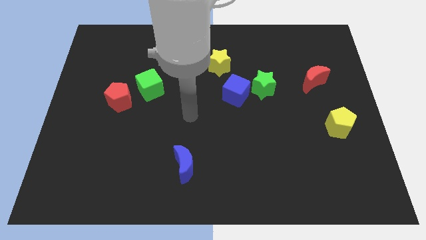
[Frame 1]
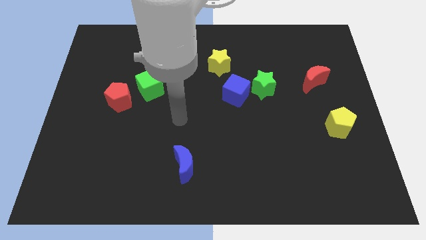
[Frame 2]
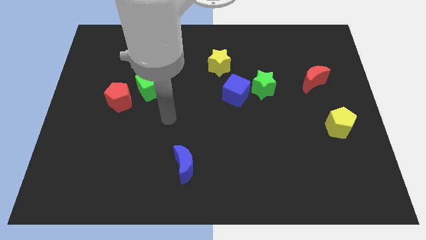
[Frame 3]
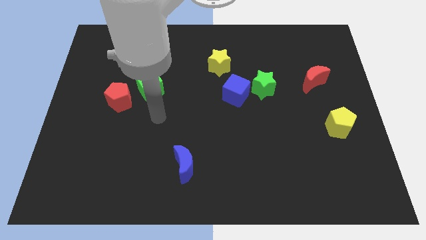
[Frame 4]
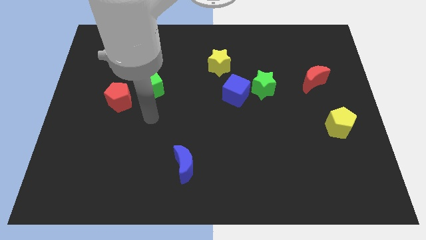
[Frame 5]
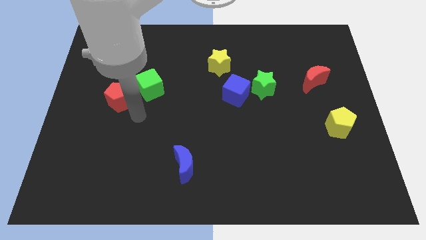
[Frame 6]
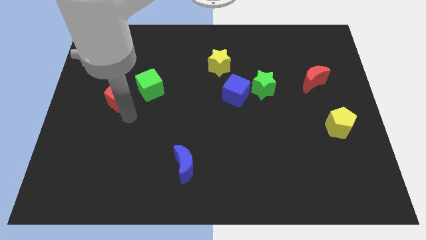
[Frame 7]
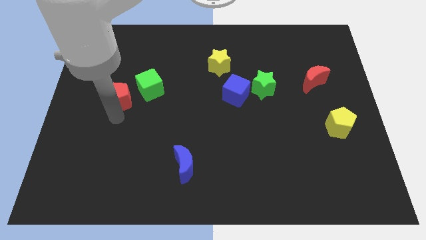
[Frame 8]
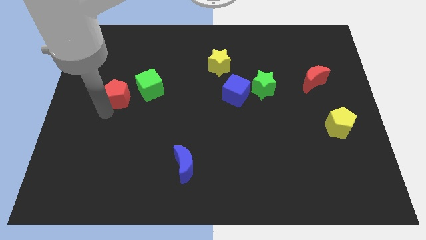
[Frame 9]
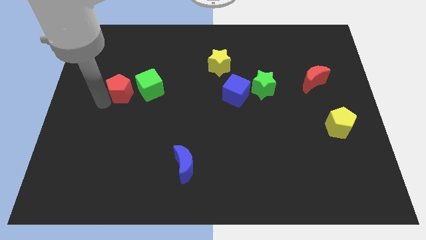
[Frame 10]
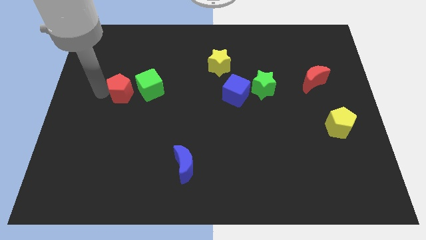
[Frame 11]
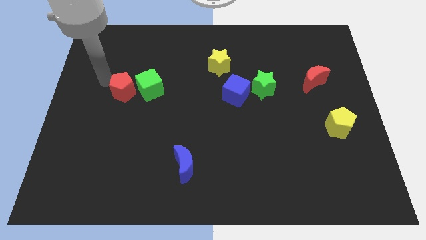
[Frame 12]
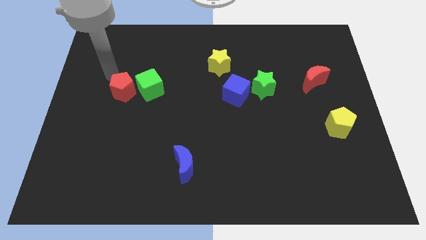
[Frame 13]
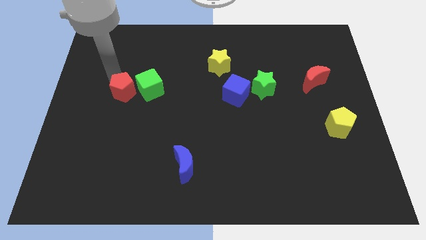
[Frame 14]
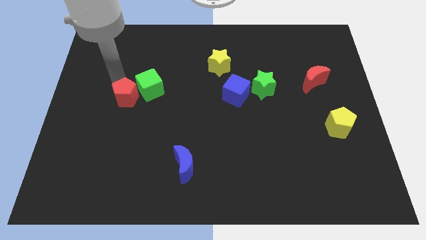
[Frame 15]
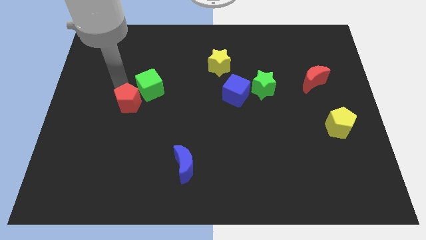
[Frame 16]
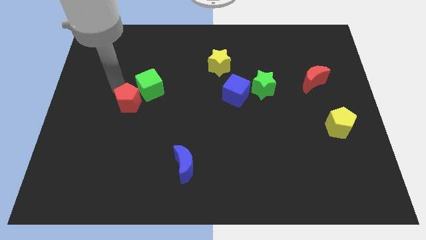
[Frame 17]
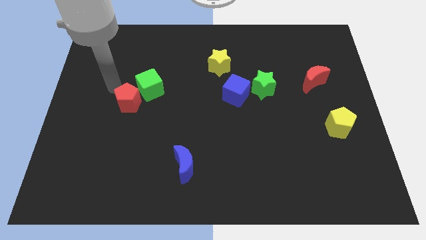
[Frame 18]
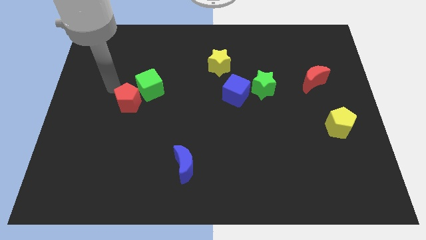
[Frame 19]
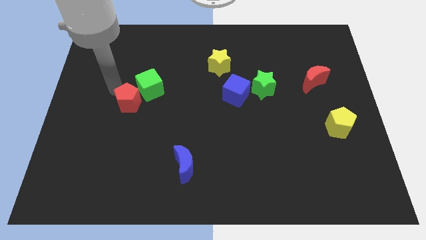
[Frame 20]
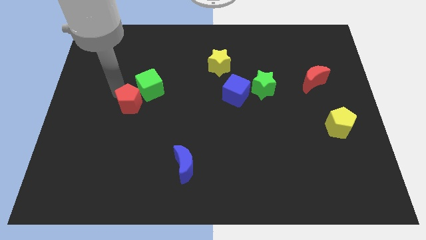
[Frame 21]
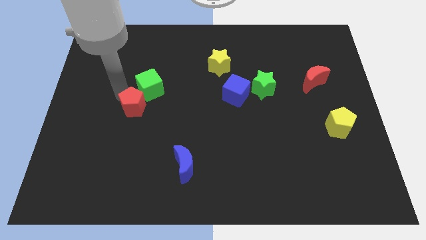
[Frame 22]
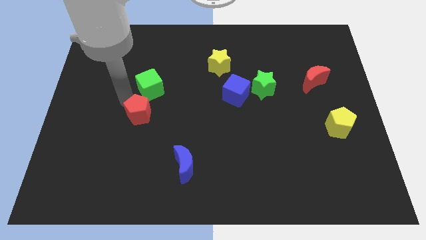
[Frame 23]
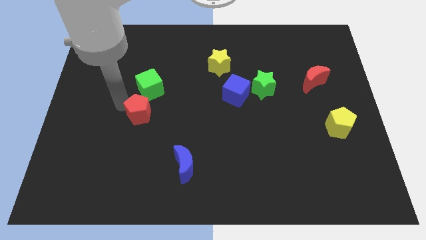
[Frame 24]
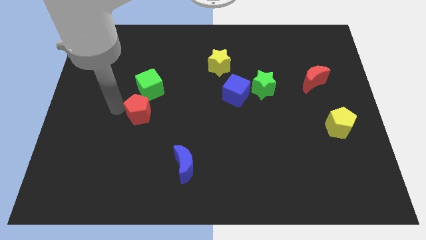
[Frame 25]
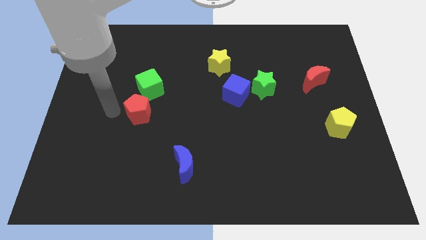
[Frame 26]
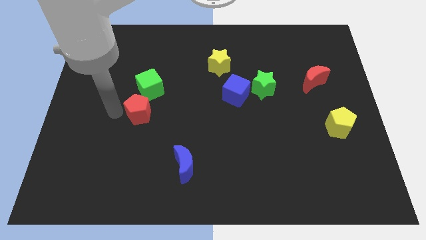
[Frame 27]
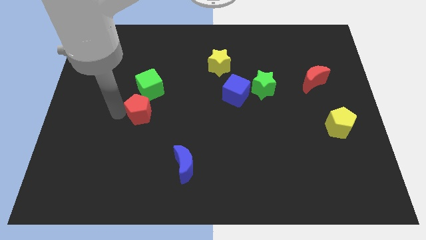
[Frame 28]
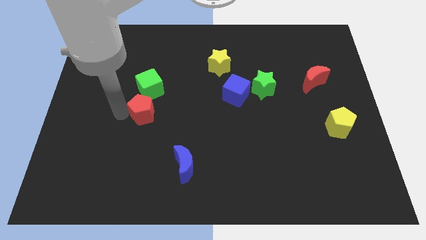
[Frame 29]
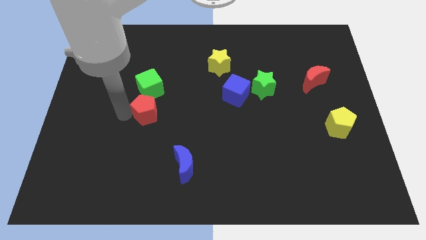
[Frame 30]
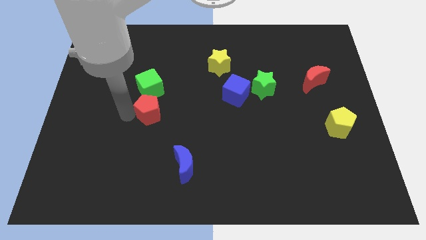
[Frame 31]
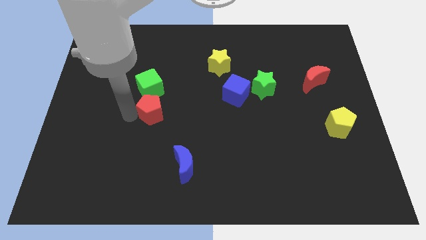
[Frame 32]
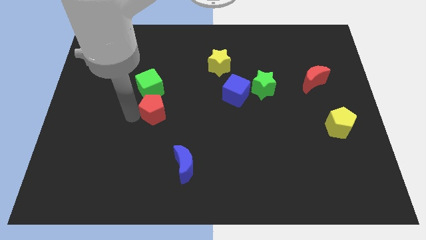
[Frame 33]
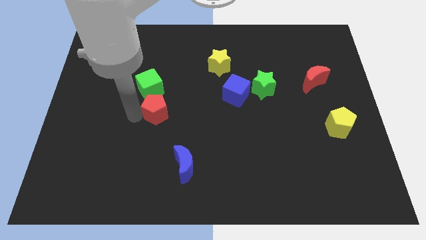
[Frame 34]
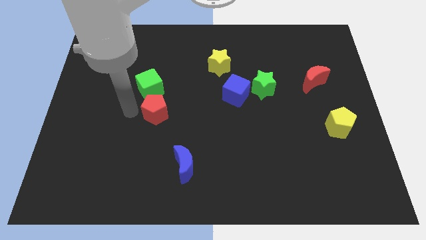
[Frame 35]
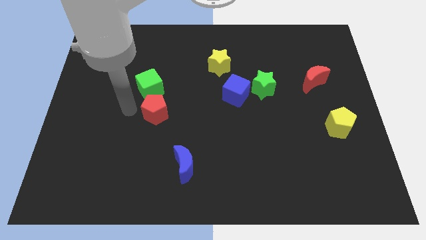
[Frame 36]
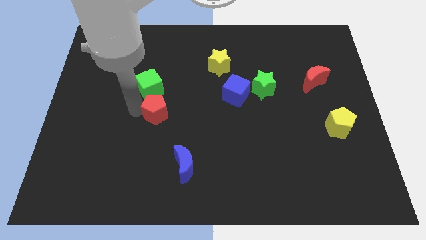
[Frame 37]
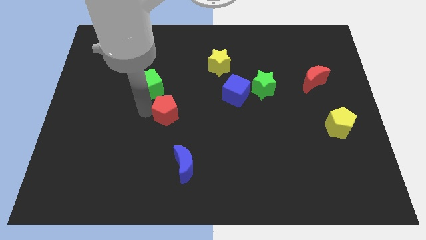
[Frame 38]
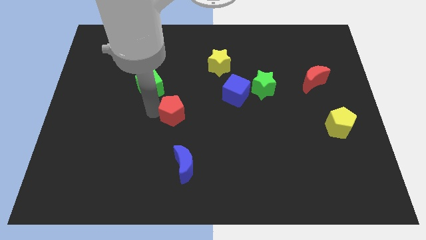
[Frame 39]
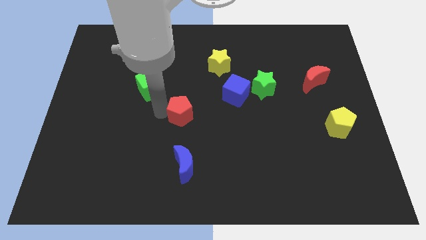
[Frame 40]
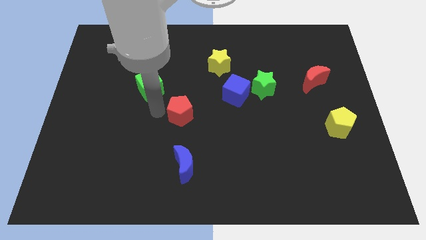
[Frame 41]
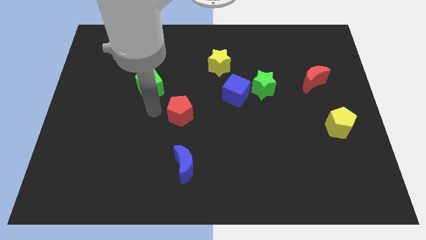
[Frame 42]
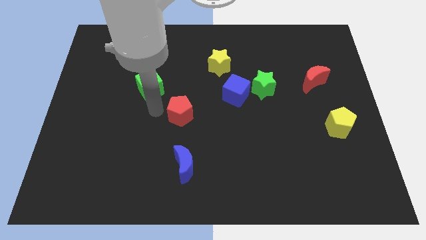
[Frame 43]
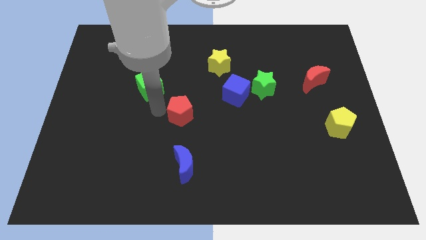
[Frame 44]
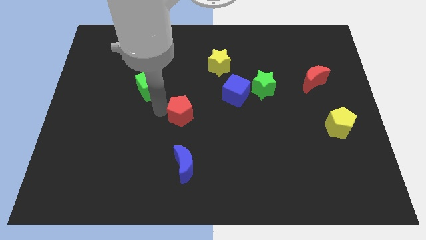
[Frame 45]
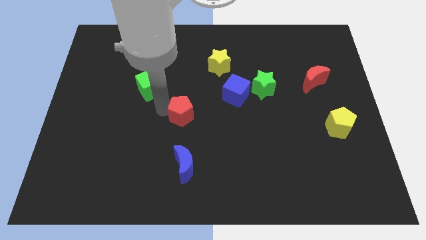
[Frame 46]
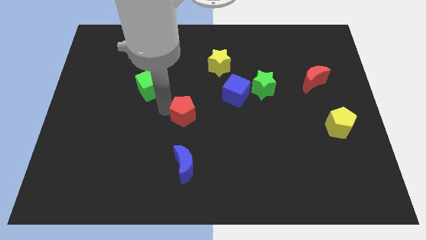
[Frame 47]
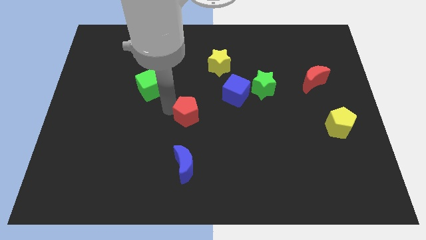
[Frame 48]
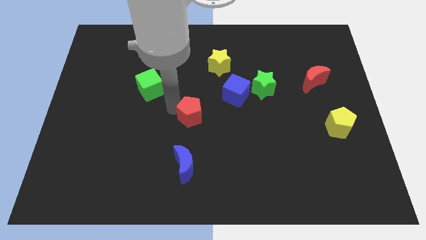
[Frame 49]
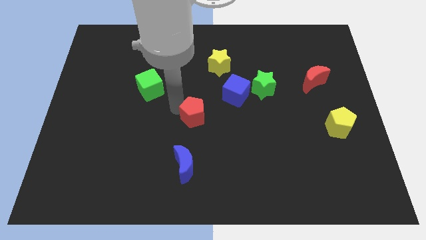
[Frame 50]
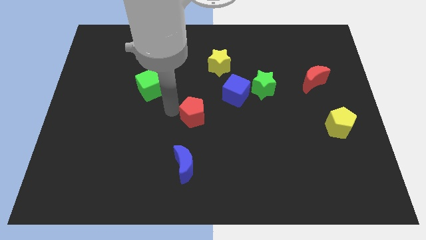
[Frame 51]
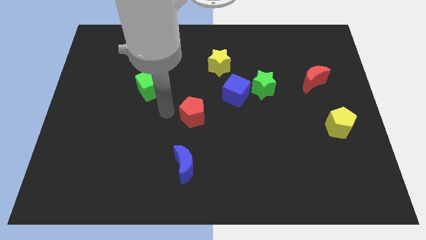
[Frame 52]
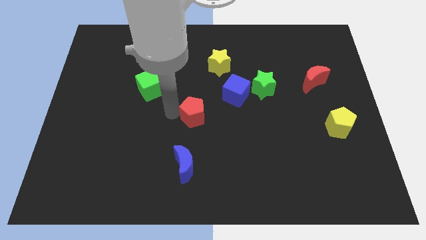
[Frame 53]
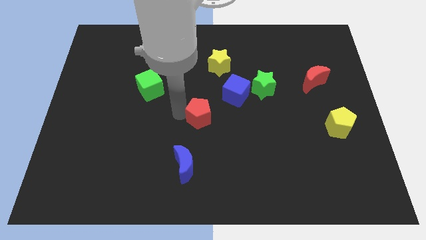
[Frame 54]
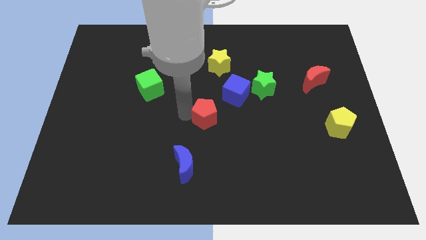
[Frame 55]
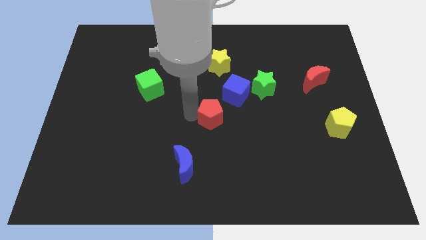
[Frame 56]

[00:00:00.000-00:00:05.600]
push the red pentagon to the right

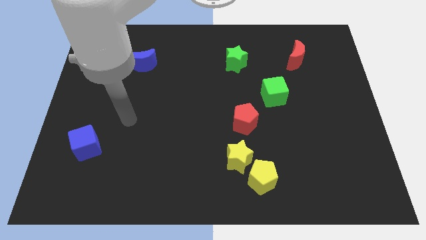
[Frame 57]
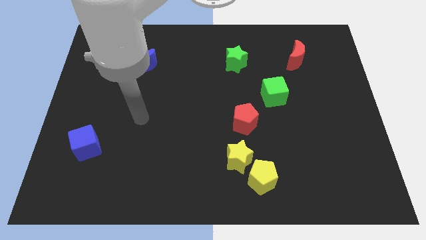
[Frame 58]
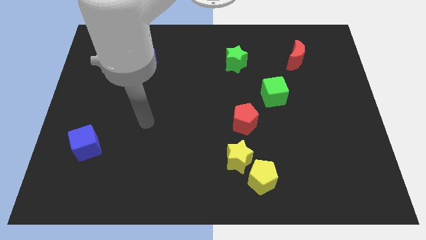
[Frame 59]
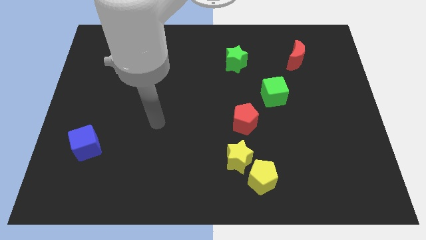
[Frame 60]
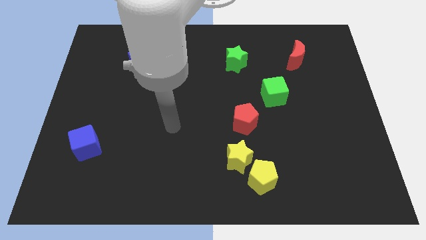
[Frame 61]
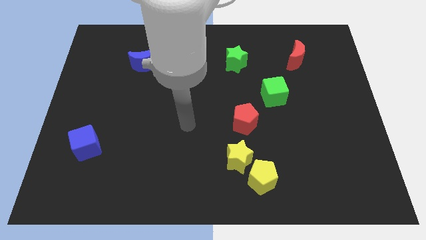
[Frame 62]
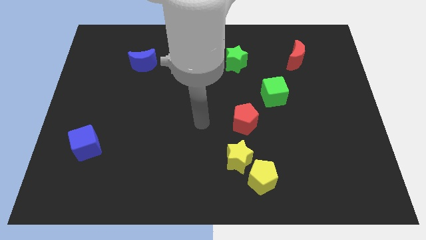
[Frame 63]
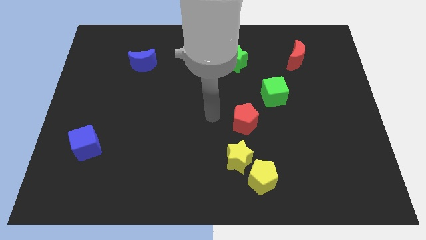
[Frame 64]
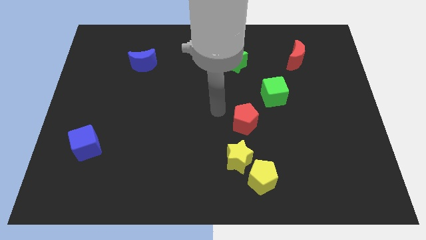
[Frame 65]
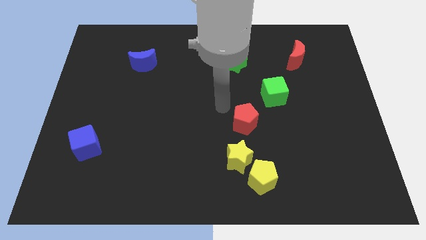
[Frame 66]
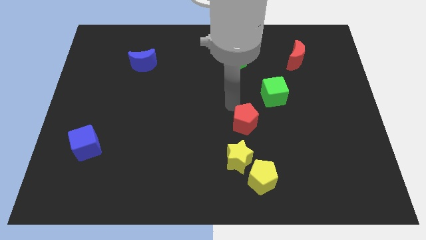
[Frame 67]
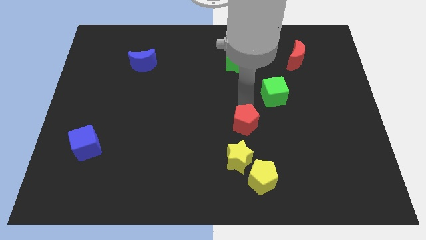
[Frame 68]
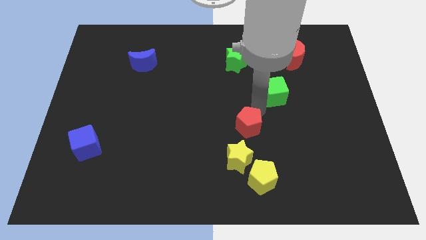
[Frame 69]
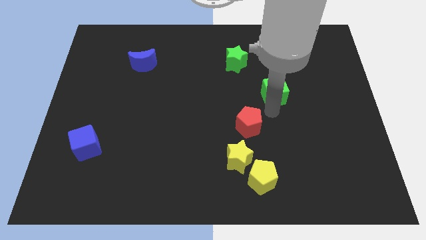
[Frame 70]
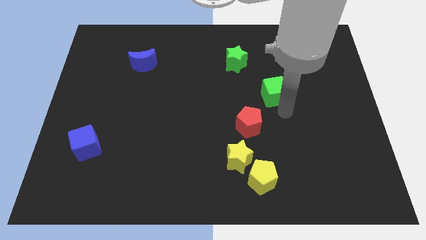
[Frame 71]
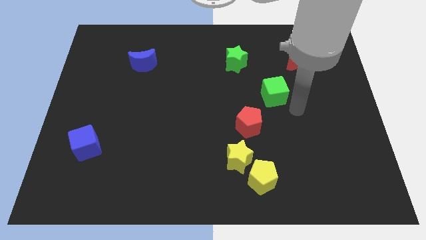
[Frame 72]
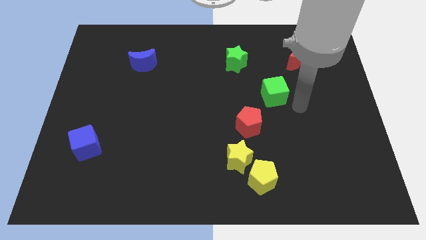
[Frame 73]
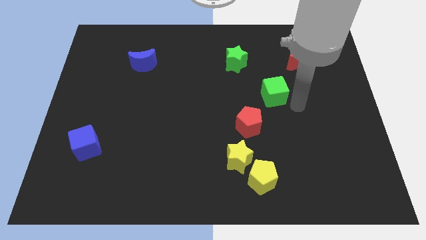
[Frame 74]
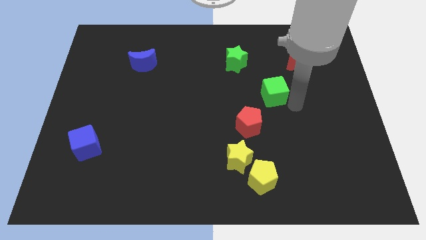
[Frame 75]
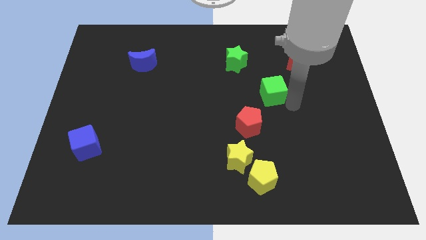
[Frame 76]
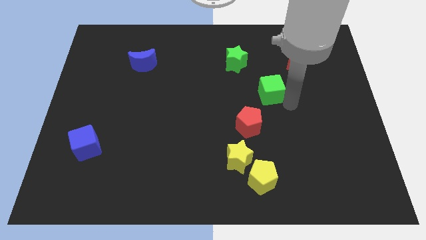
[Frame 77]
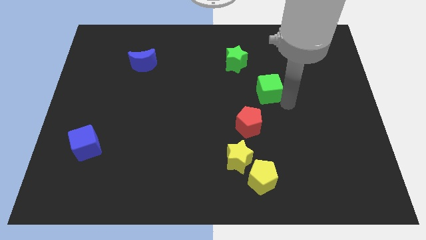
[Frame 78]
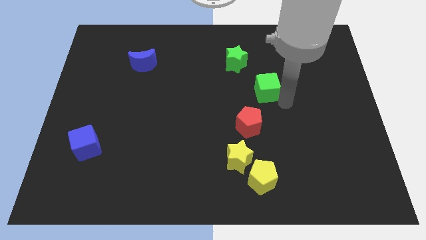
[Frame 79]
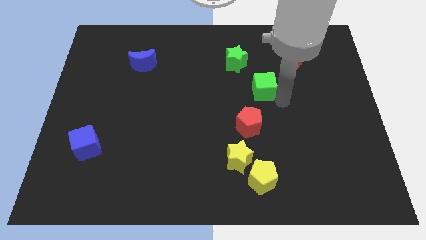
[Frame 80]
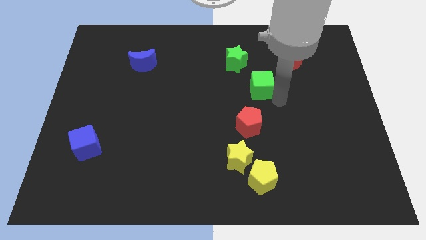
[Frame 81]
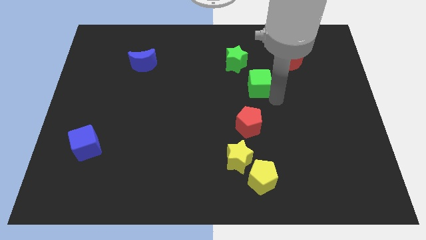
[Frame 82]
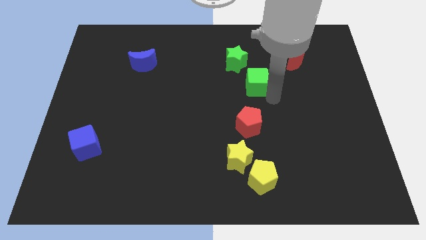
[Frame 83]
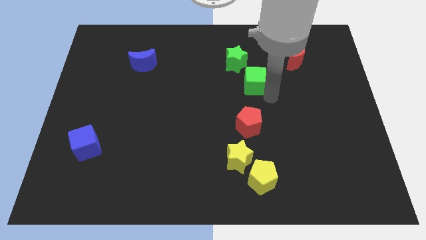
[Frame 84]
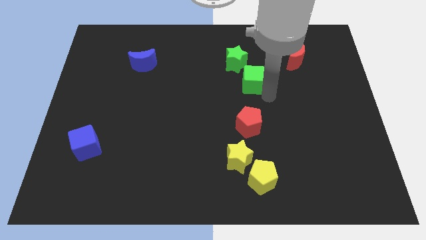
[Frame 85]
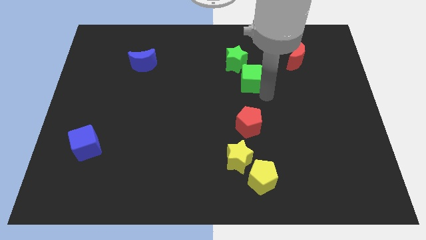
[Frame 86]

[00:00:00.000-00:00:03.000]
slightly push the green cube up and to the left diagonally

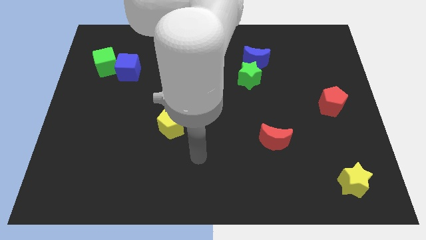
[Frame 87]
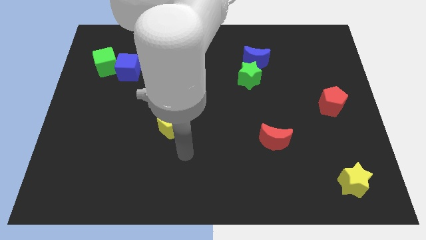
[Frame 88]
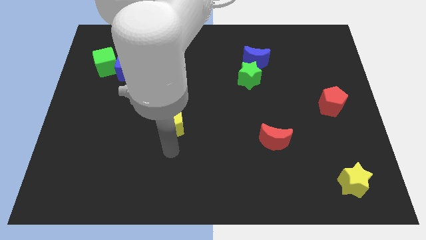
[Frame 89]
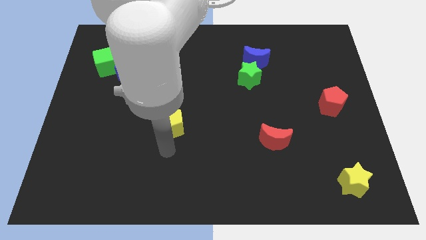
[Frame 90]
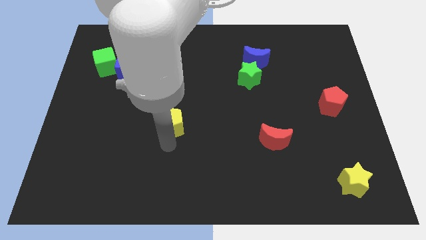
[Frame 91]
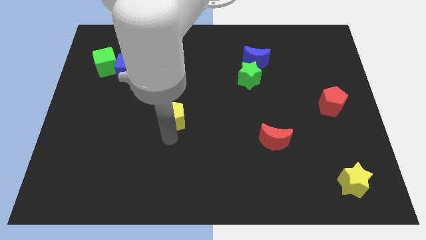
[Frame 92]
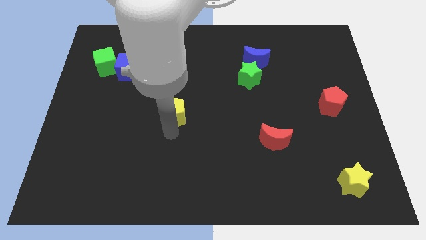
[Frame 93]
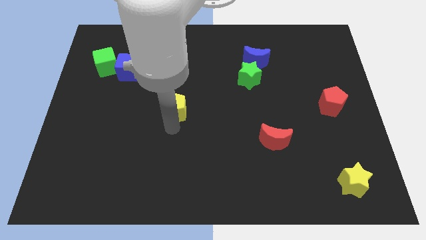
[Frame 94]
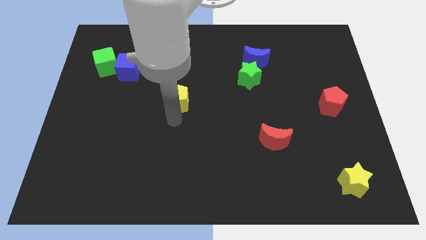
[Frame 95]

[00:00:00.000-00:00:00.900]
move the yellow pentagon upwards a bit
